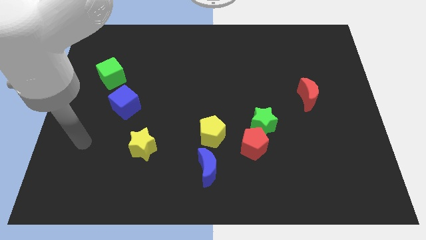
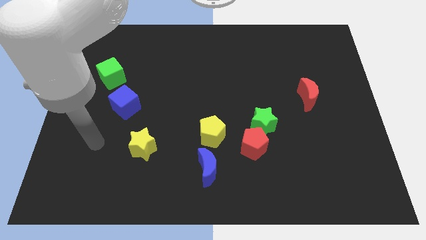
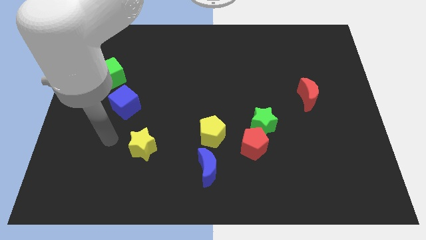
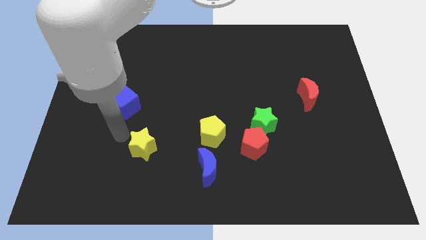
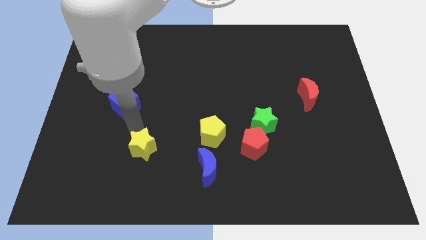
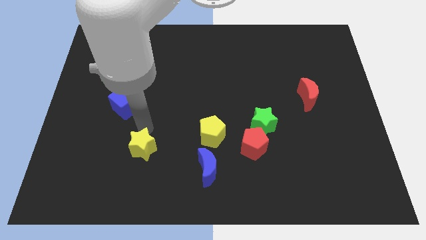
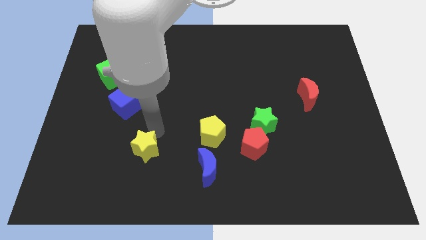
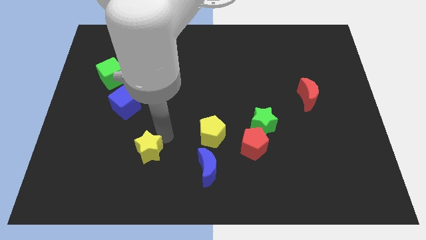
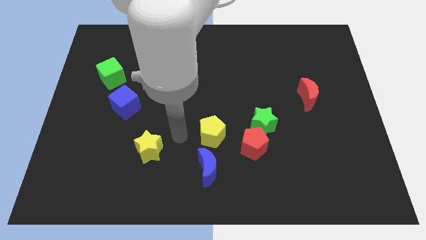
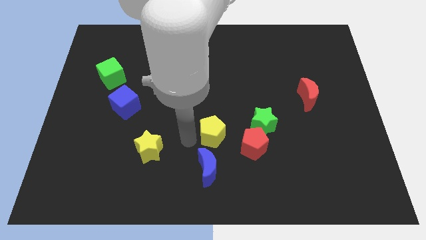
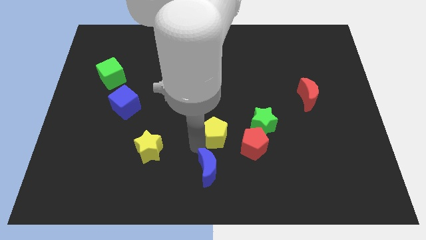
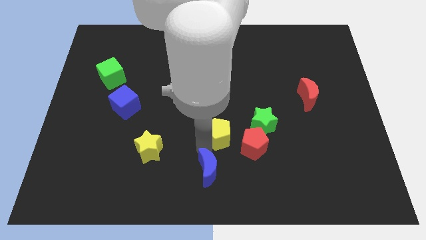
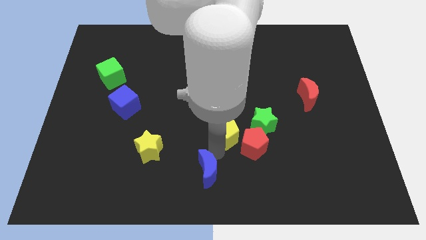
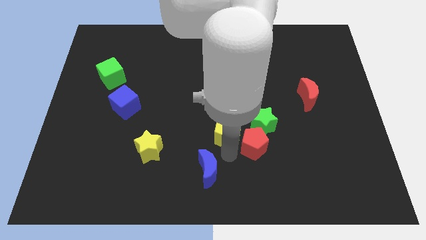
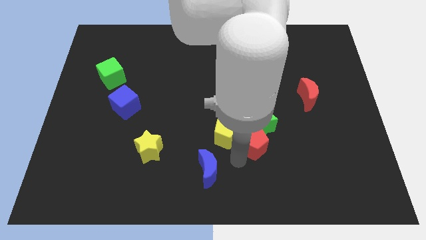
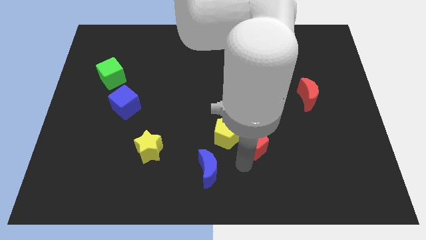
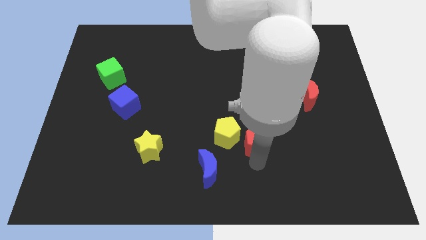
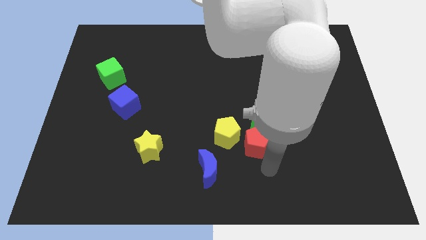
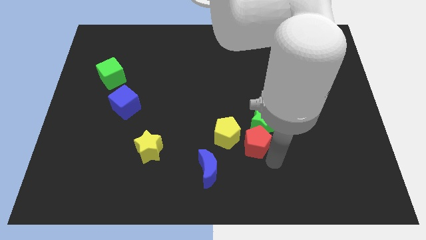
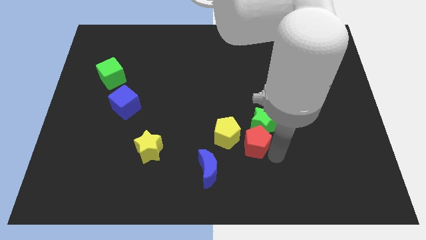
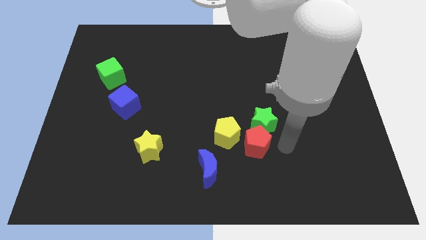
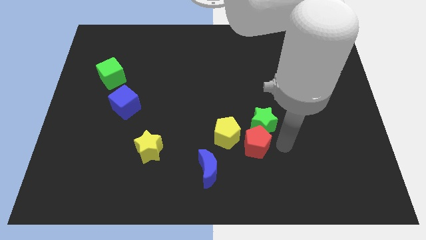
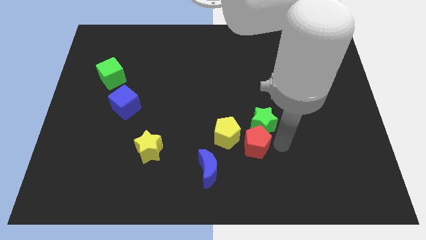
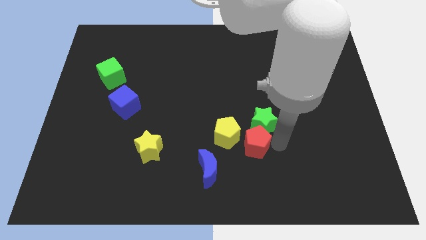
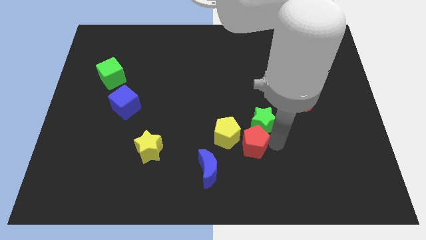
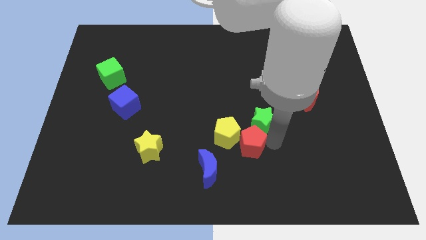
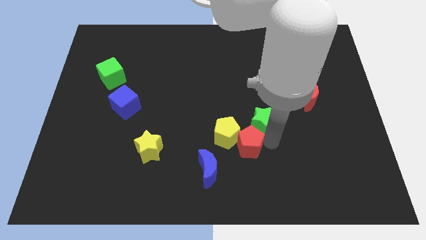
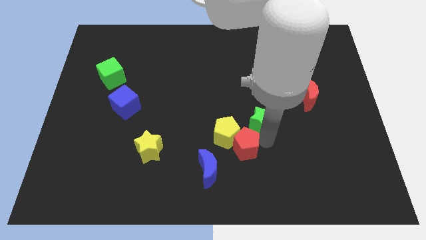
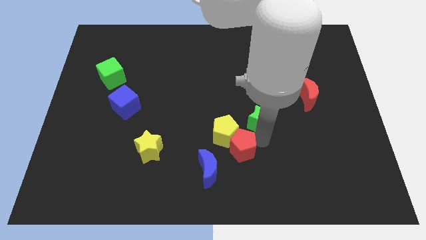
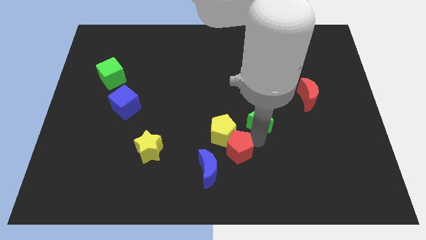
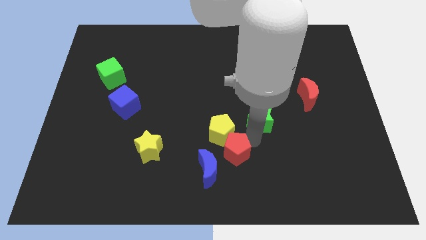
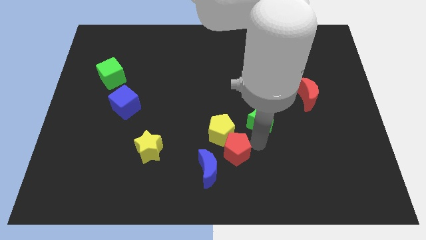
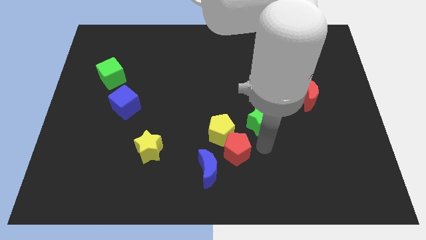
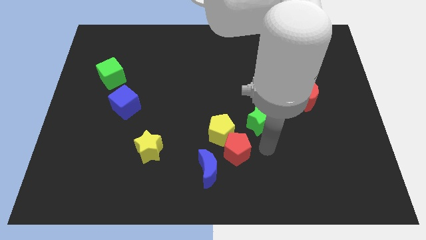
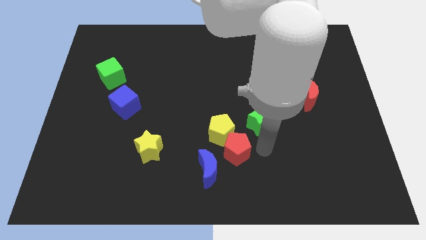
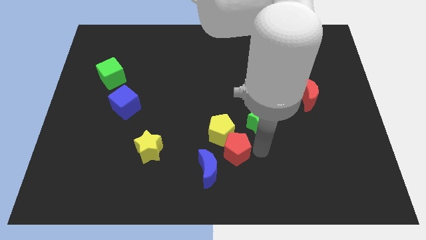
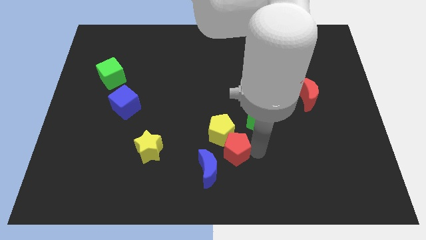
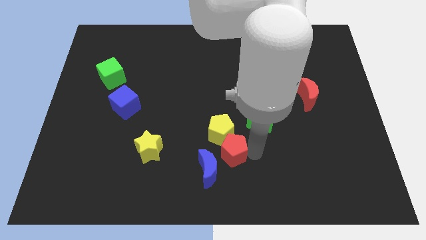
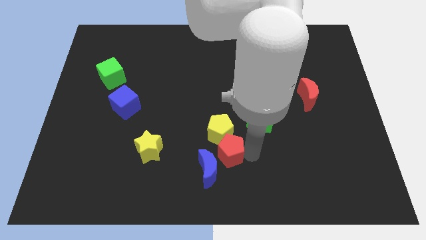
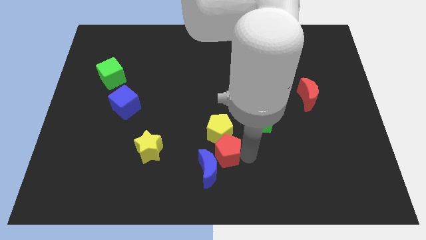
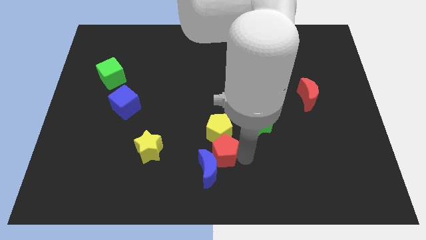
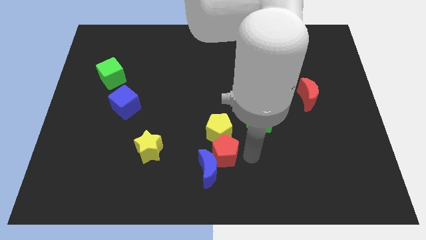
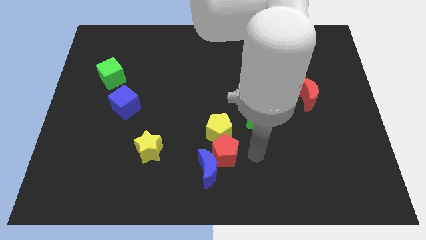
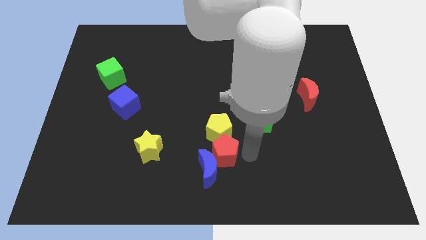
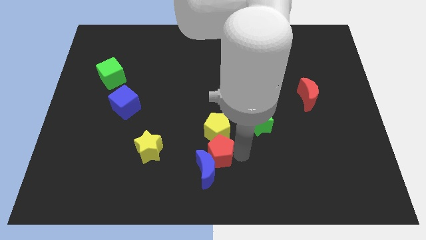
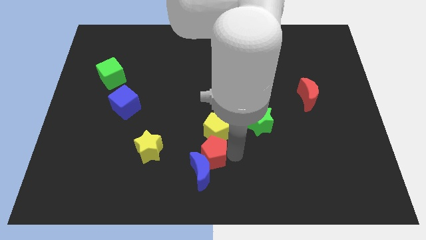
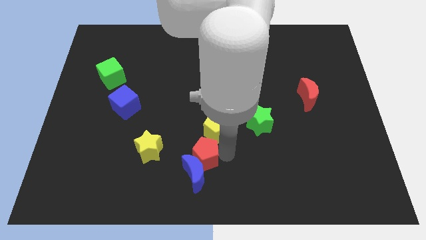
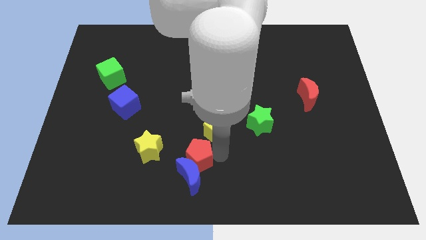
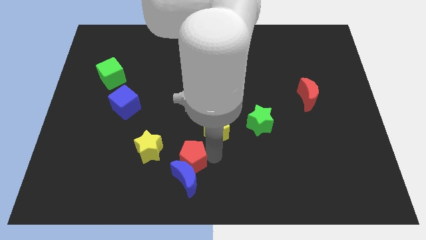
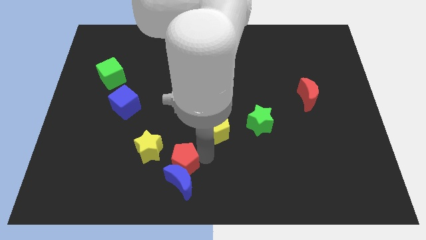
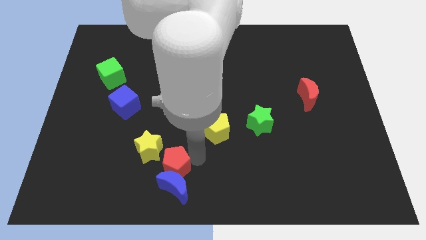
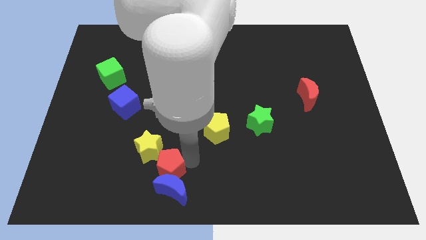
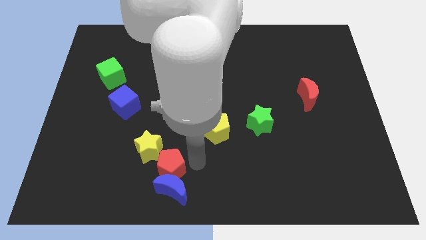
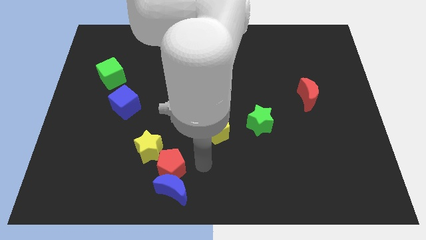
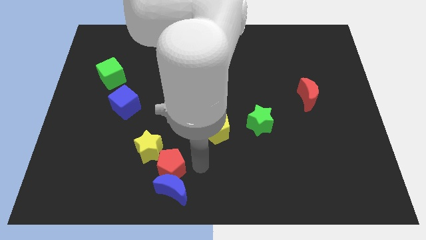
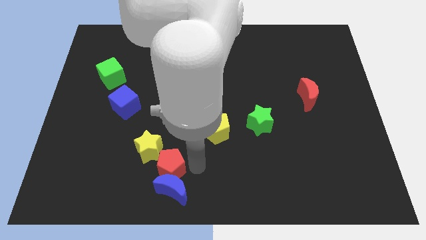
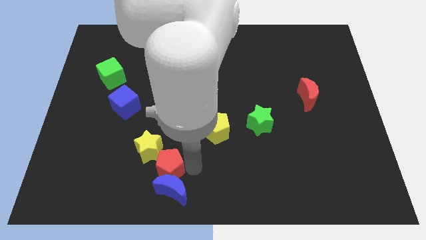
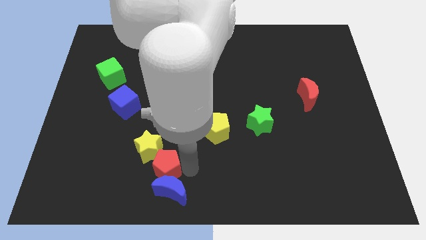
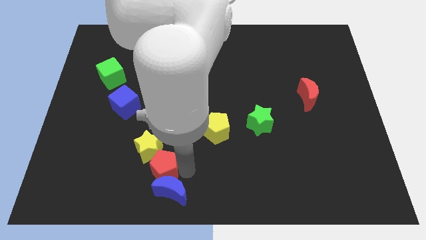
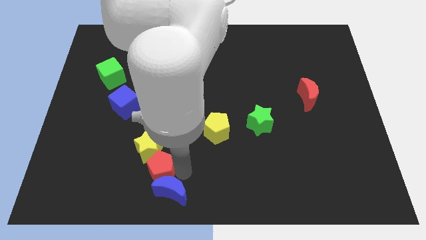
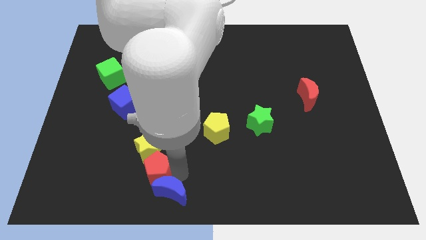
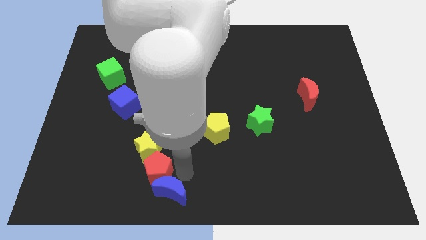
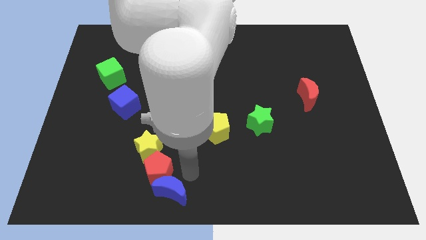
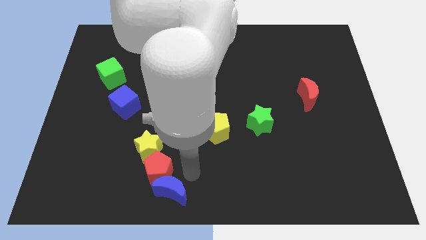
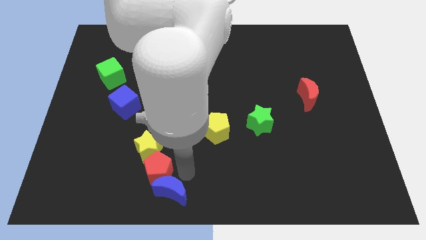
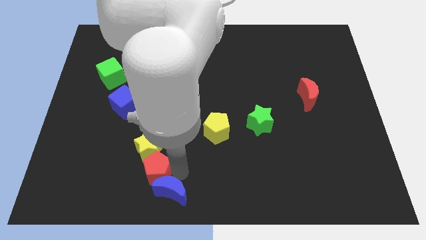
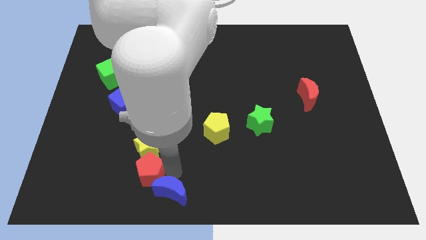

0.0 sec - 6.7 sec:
push the red pentagon to the bottom left side of the yellow star
